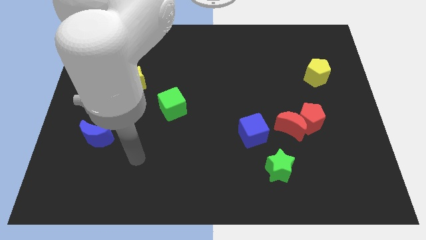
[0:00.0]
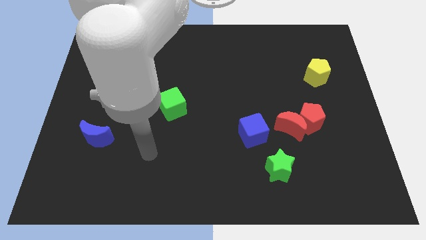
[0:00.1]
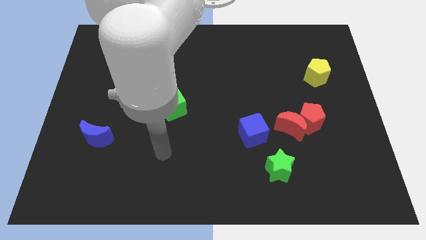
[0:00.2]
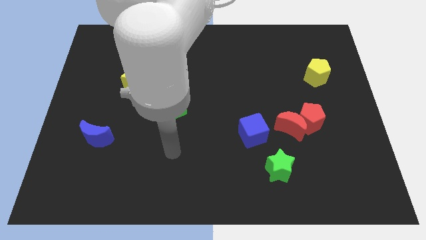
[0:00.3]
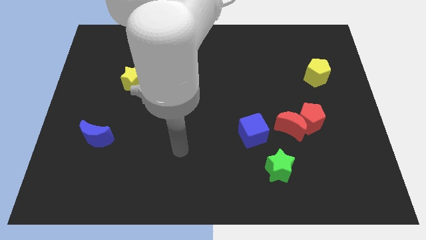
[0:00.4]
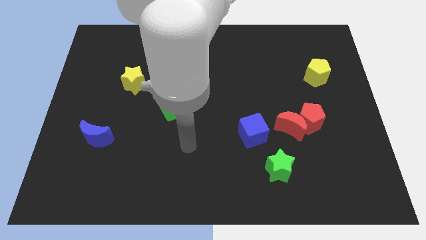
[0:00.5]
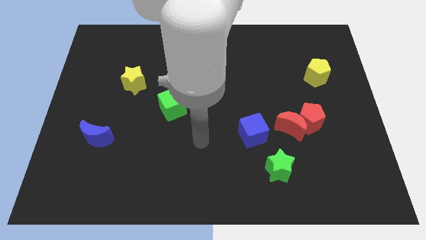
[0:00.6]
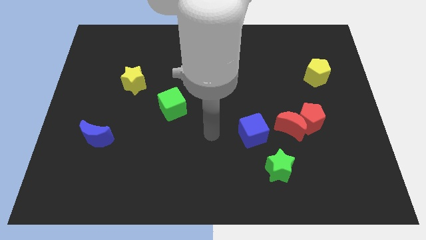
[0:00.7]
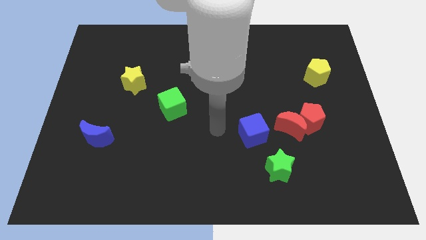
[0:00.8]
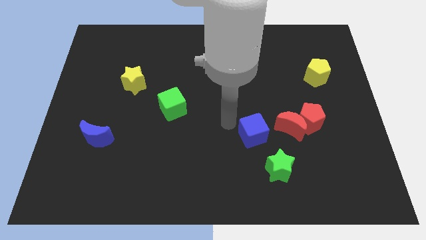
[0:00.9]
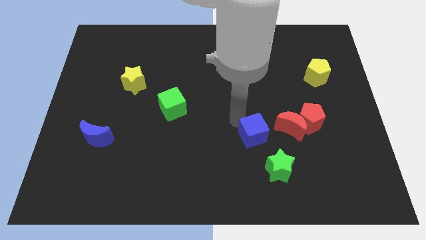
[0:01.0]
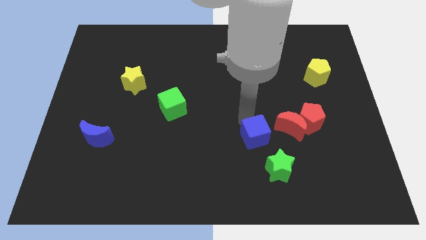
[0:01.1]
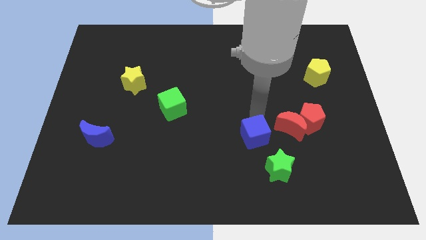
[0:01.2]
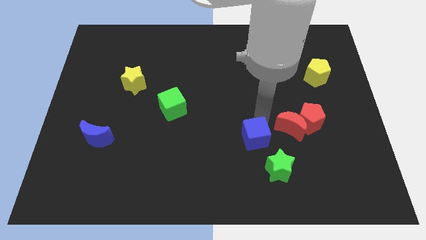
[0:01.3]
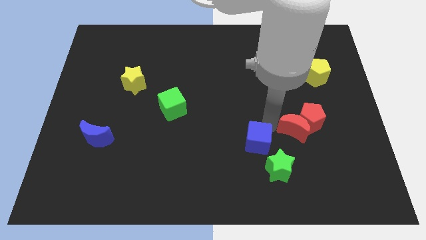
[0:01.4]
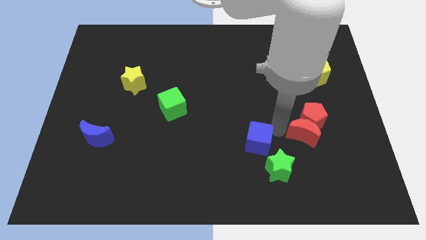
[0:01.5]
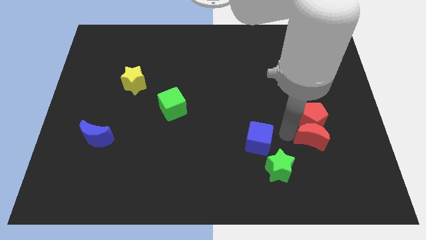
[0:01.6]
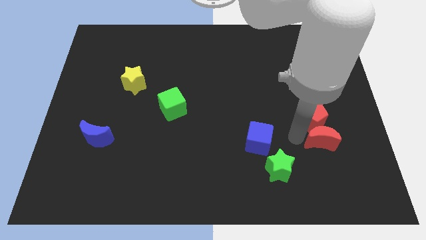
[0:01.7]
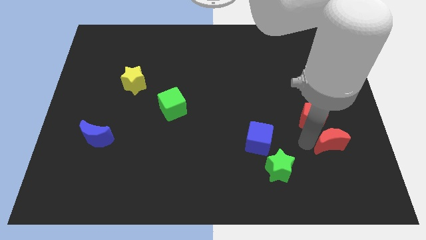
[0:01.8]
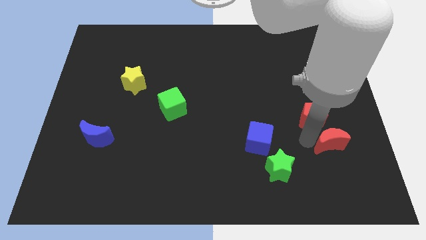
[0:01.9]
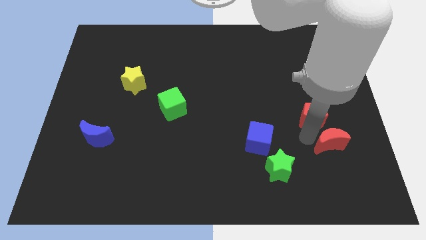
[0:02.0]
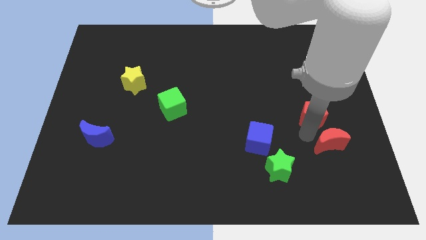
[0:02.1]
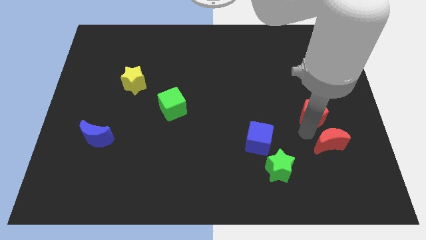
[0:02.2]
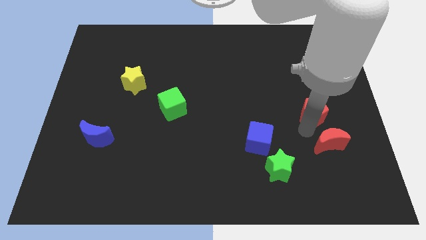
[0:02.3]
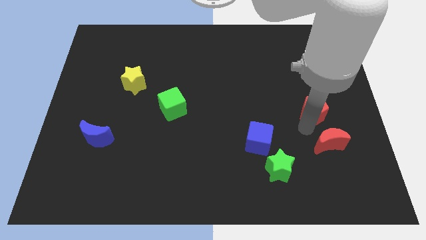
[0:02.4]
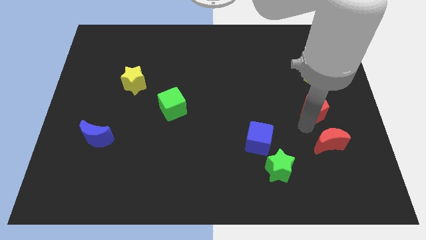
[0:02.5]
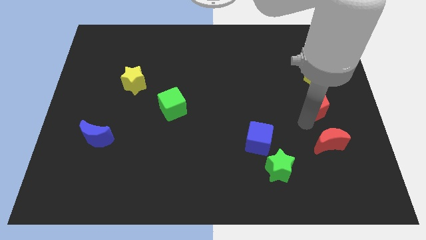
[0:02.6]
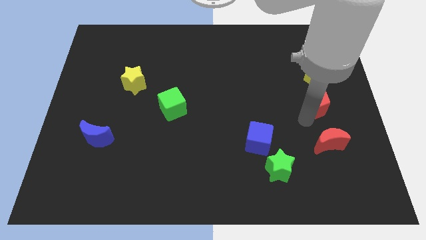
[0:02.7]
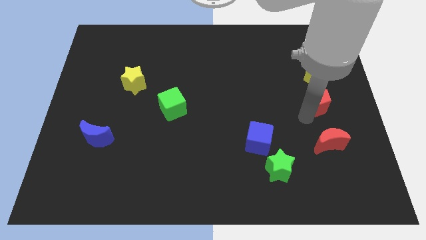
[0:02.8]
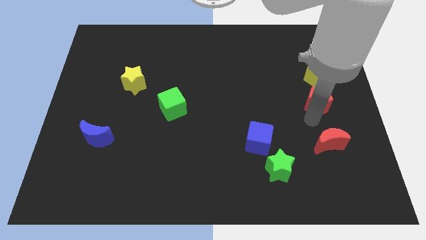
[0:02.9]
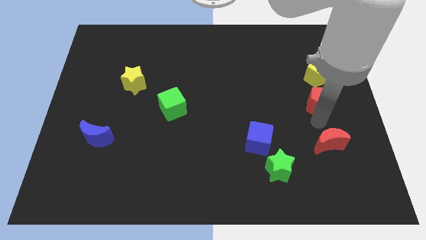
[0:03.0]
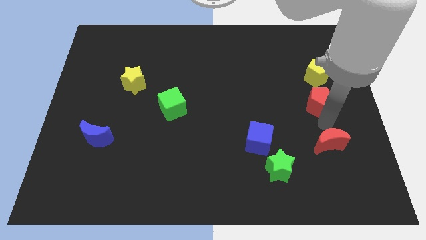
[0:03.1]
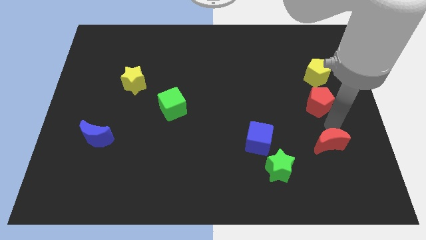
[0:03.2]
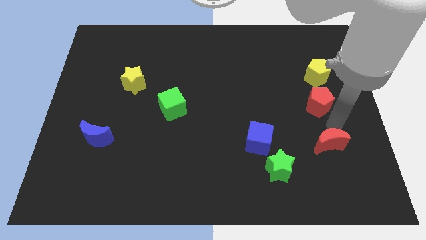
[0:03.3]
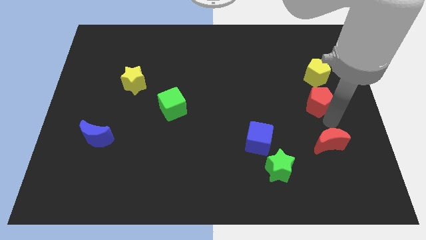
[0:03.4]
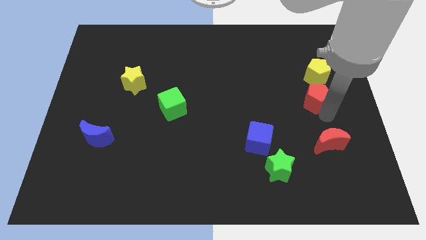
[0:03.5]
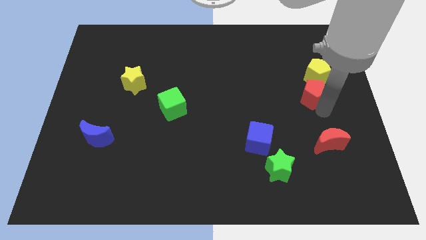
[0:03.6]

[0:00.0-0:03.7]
slightly move the red pentagon upwards

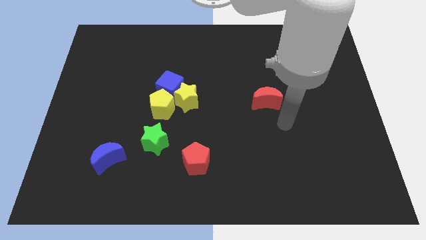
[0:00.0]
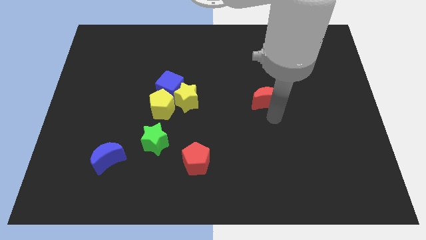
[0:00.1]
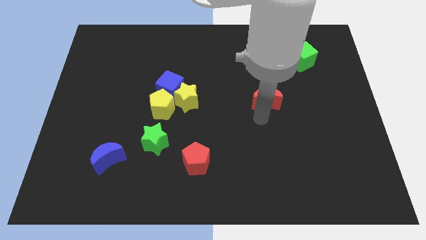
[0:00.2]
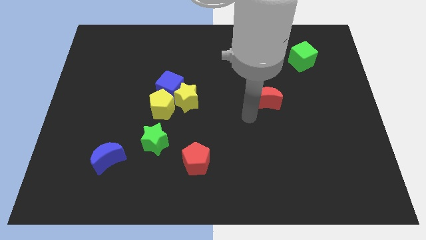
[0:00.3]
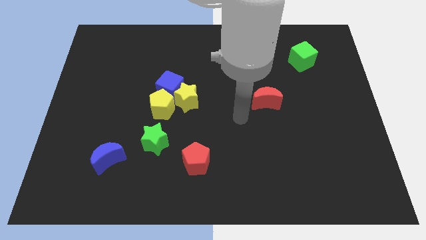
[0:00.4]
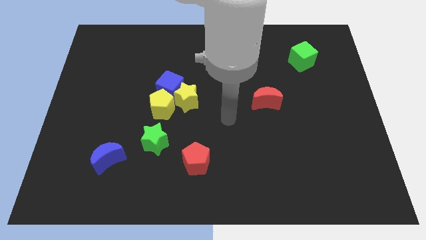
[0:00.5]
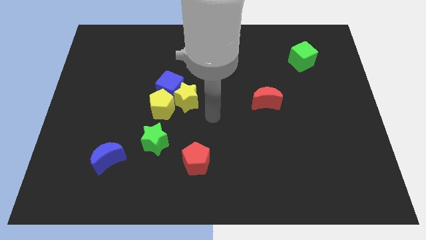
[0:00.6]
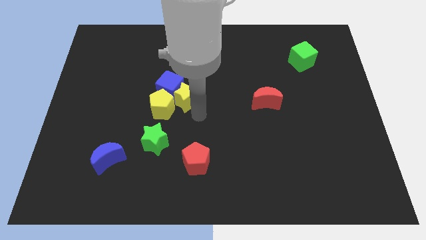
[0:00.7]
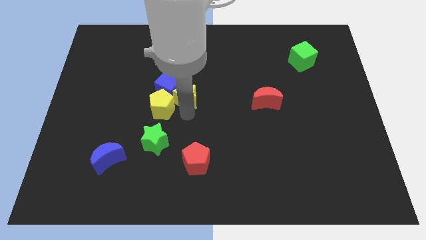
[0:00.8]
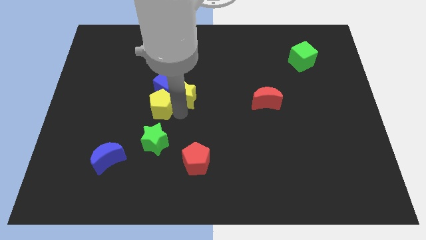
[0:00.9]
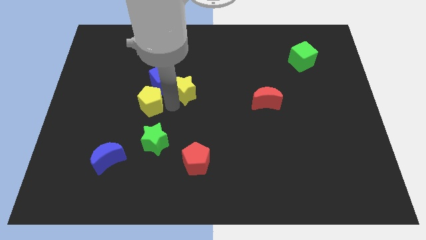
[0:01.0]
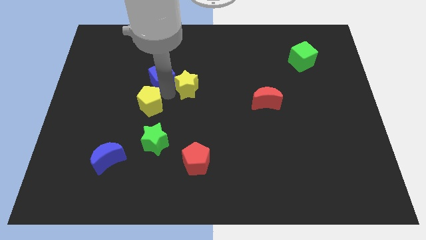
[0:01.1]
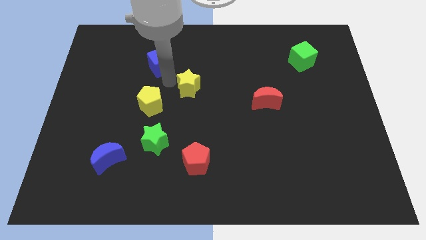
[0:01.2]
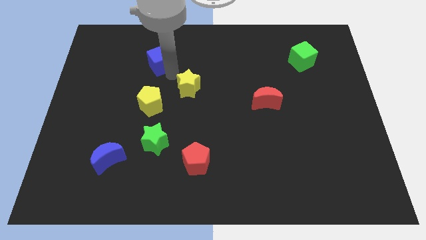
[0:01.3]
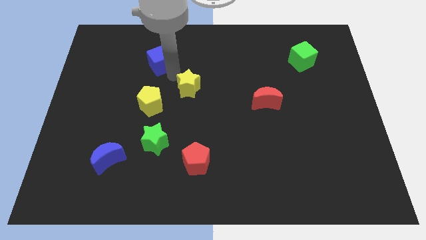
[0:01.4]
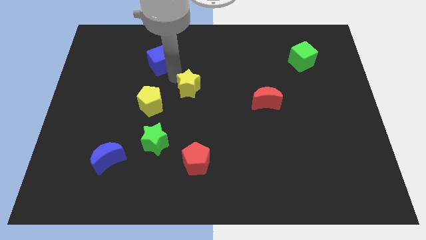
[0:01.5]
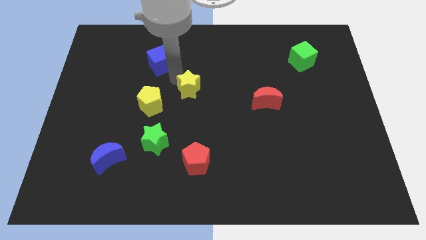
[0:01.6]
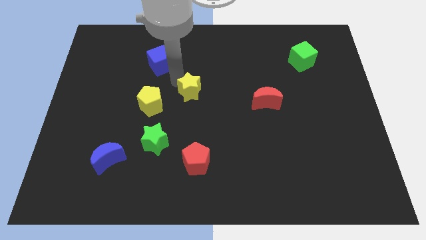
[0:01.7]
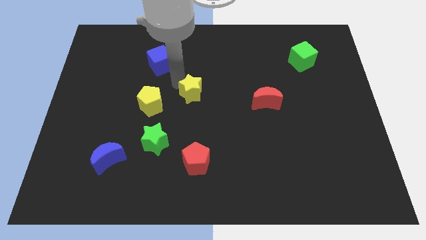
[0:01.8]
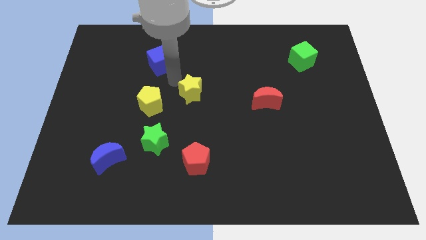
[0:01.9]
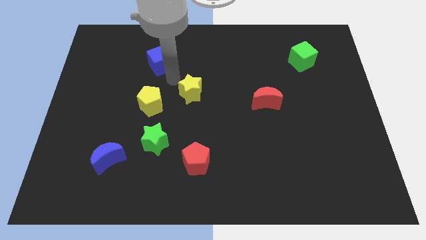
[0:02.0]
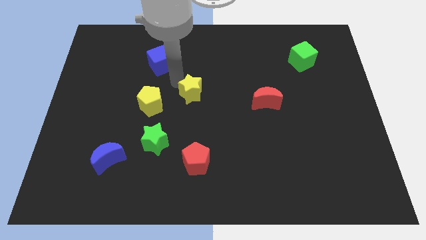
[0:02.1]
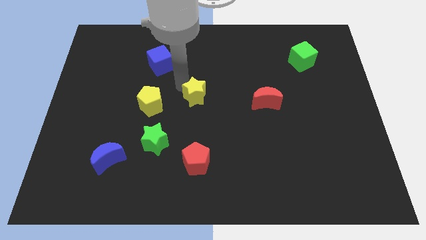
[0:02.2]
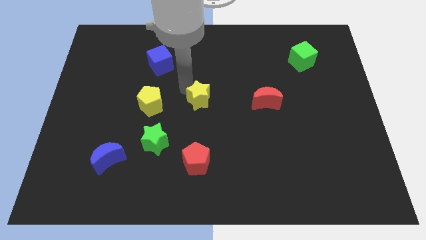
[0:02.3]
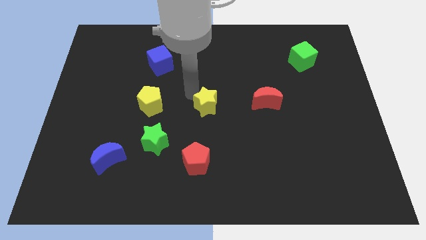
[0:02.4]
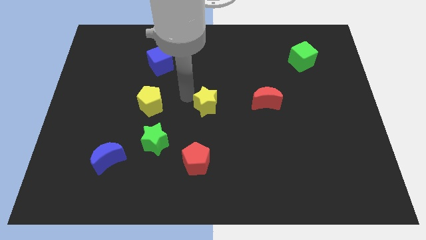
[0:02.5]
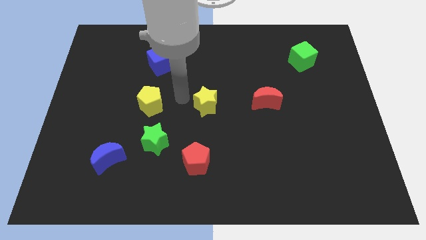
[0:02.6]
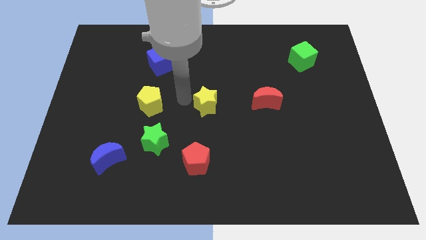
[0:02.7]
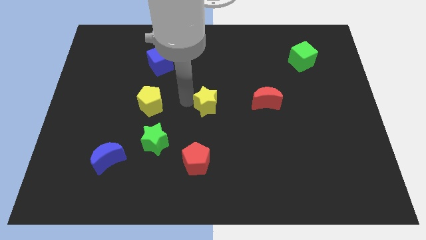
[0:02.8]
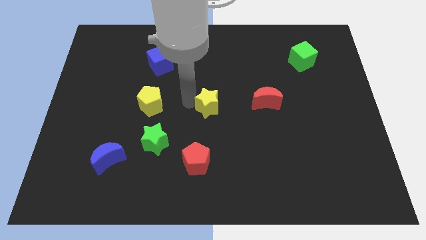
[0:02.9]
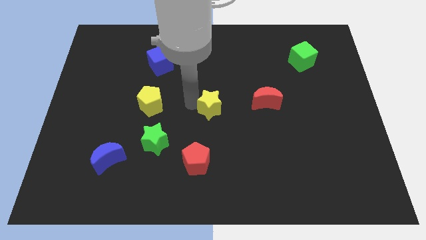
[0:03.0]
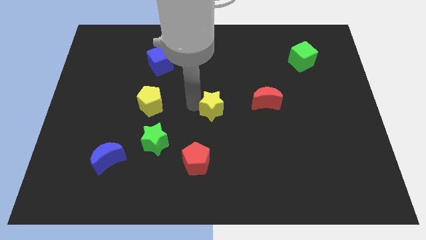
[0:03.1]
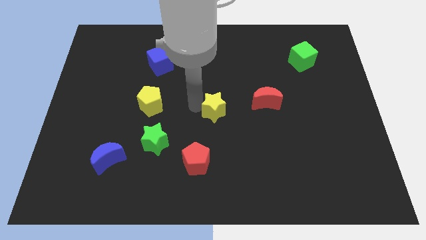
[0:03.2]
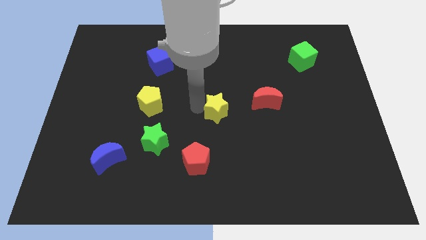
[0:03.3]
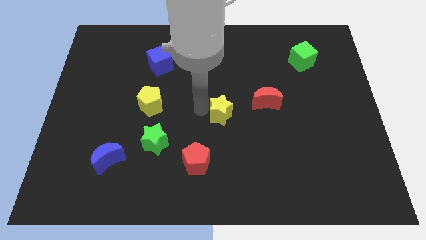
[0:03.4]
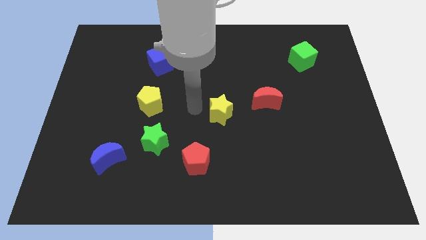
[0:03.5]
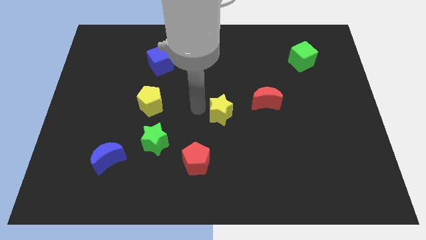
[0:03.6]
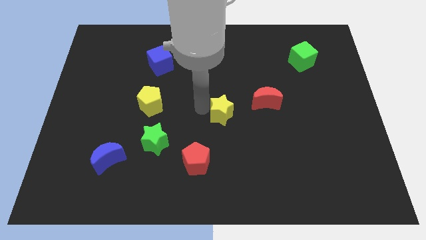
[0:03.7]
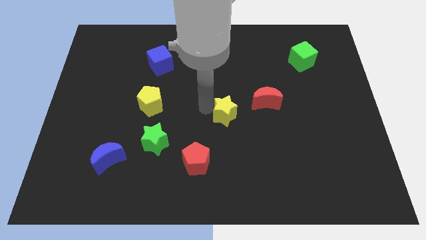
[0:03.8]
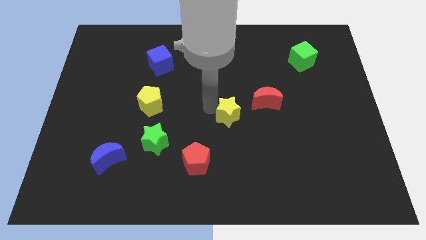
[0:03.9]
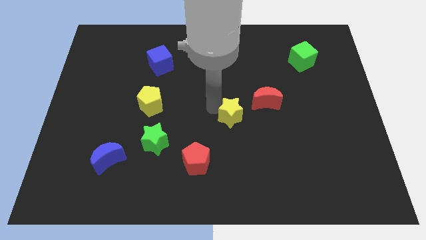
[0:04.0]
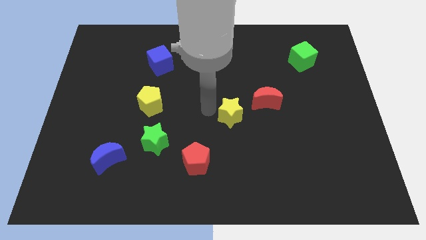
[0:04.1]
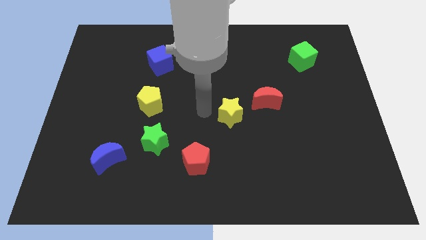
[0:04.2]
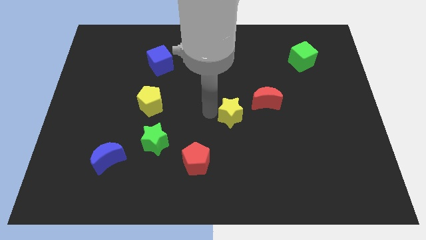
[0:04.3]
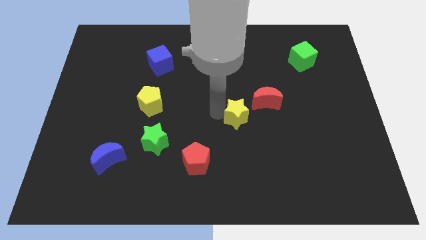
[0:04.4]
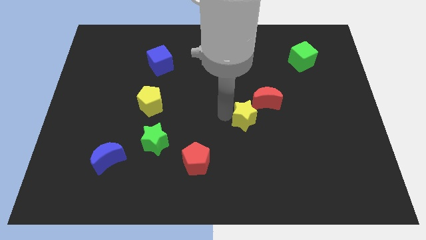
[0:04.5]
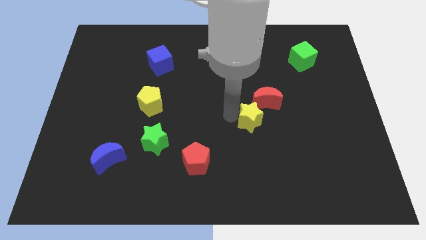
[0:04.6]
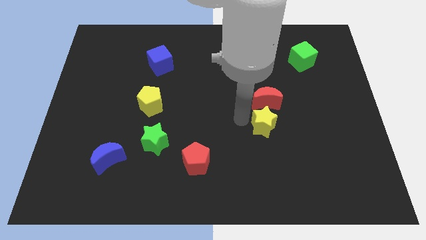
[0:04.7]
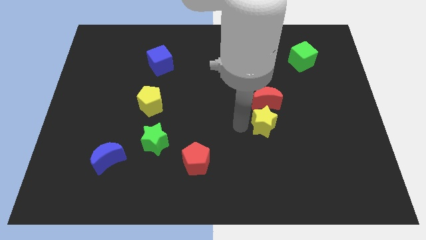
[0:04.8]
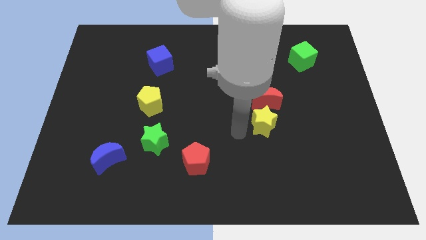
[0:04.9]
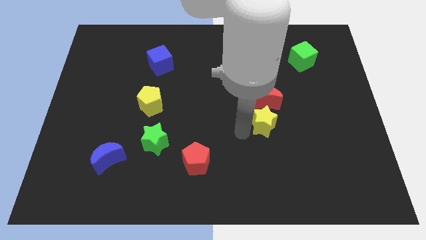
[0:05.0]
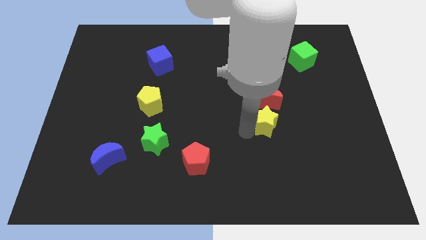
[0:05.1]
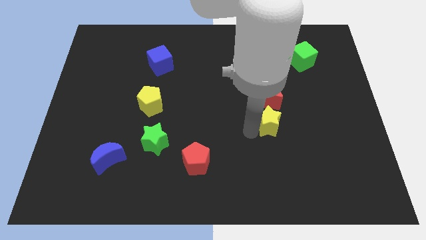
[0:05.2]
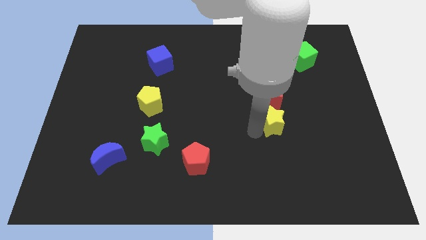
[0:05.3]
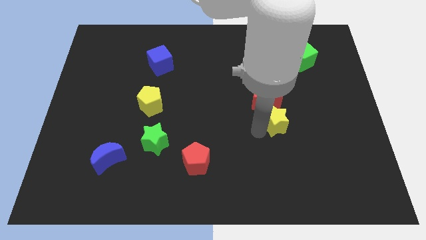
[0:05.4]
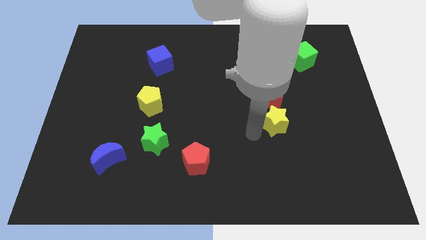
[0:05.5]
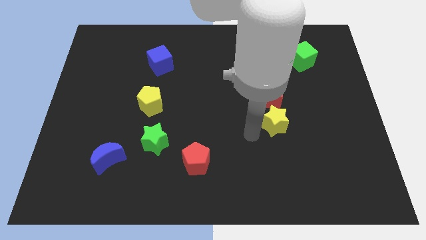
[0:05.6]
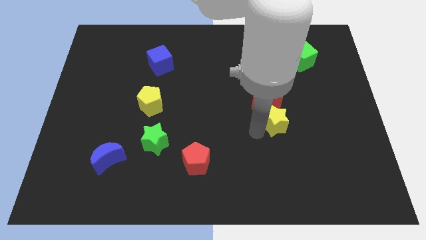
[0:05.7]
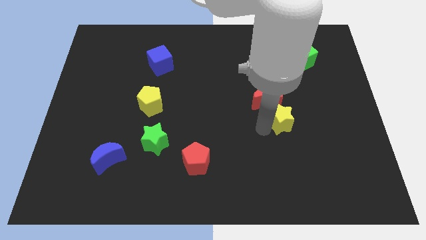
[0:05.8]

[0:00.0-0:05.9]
move the yellow star to the right
